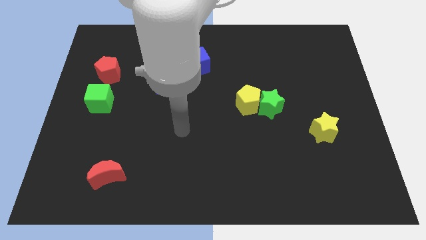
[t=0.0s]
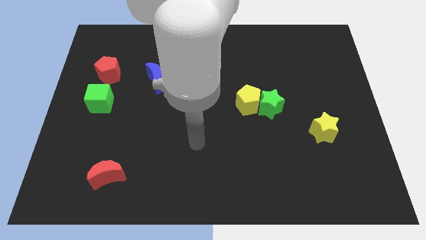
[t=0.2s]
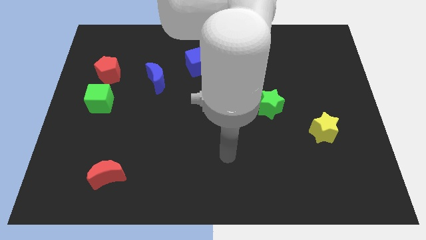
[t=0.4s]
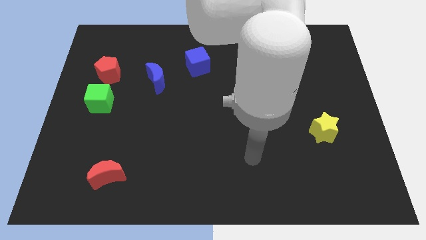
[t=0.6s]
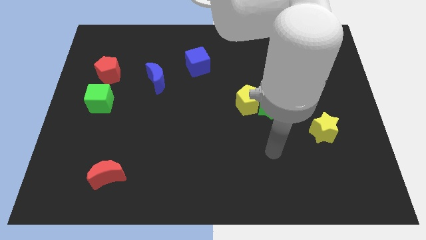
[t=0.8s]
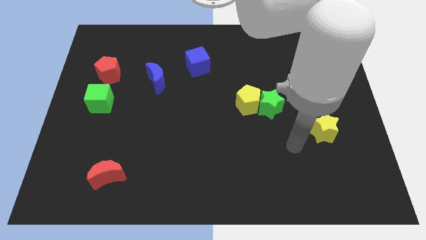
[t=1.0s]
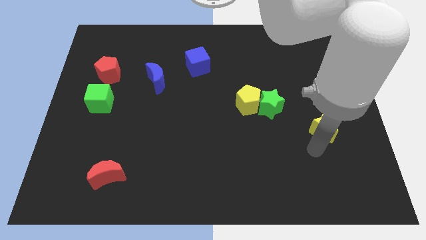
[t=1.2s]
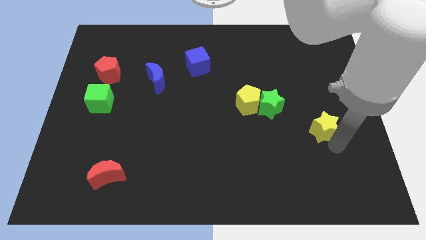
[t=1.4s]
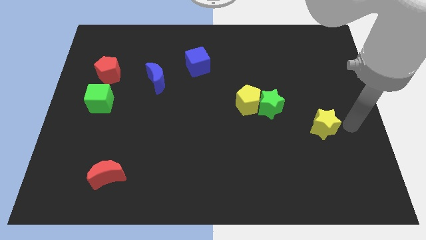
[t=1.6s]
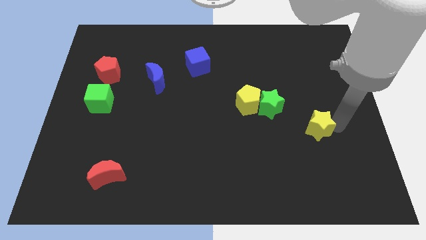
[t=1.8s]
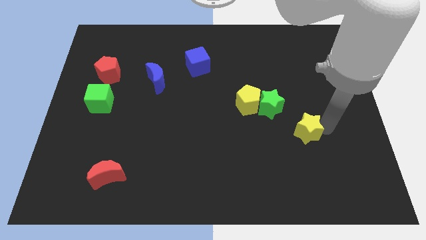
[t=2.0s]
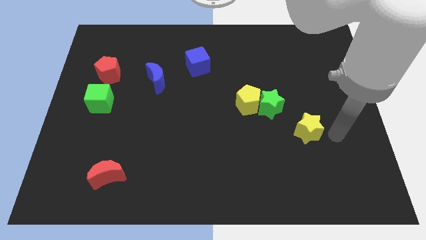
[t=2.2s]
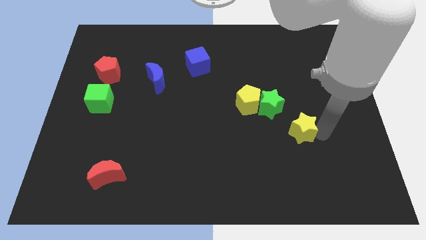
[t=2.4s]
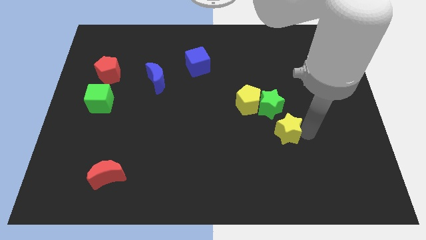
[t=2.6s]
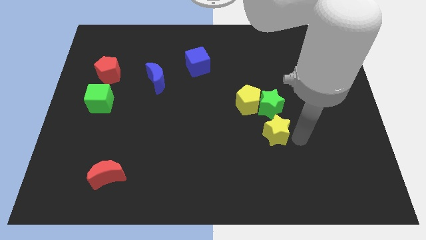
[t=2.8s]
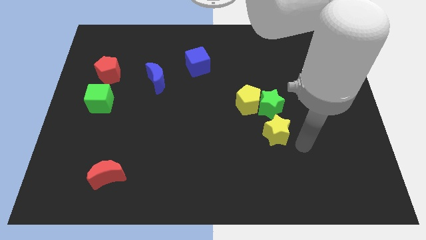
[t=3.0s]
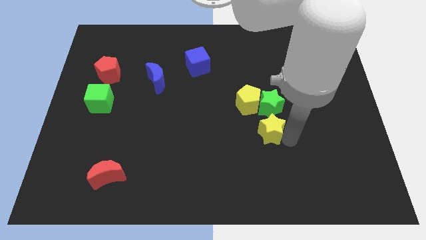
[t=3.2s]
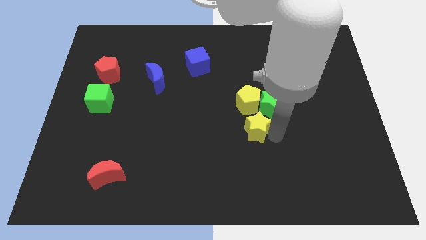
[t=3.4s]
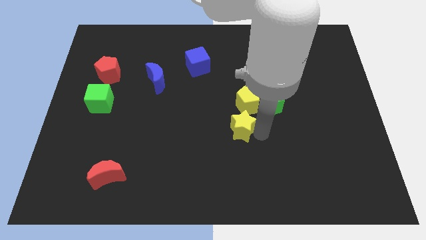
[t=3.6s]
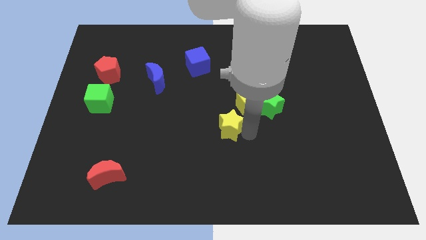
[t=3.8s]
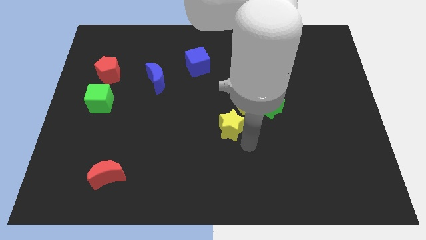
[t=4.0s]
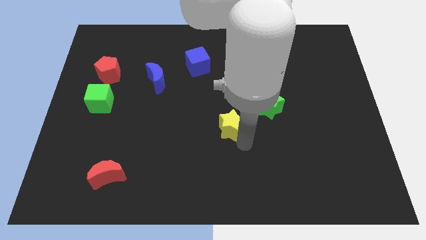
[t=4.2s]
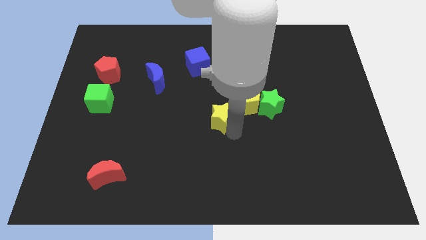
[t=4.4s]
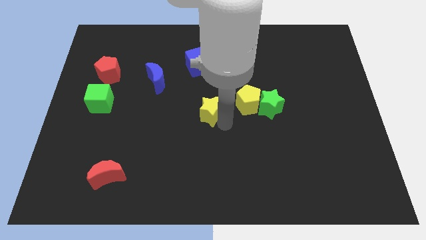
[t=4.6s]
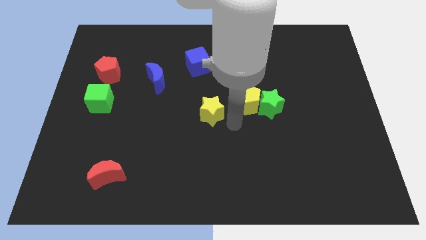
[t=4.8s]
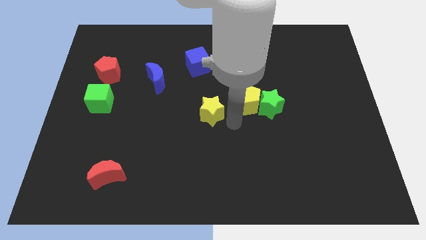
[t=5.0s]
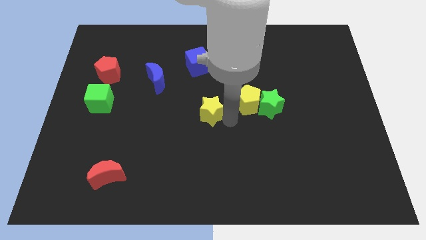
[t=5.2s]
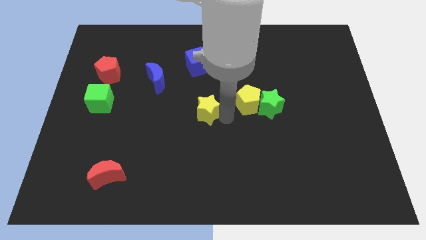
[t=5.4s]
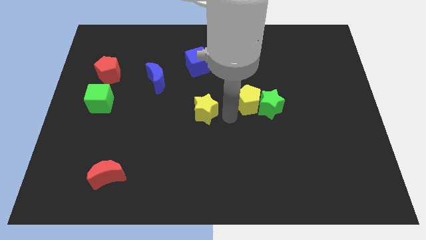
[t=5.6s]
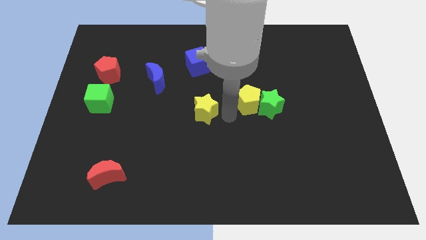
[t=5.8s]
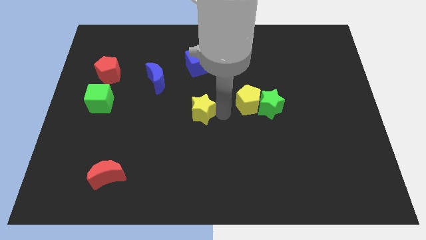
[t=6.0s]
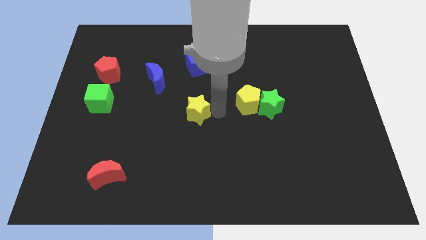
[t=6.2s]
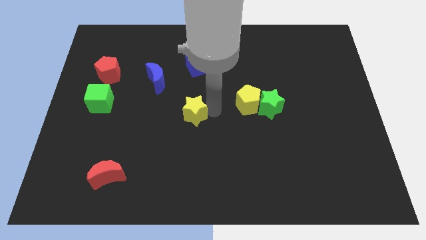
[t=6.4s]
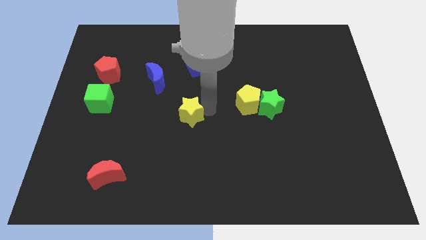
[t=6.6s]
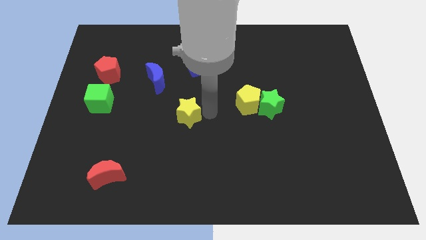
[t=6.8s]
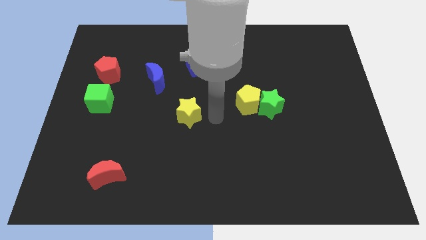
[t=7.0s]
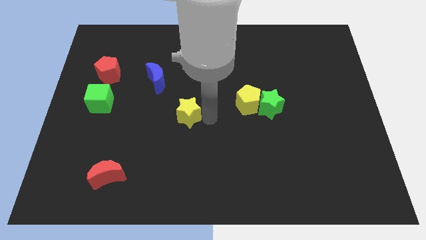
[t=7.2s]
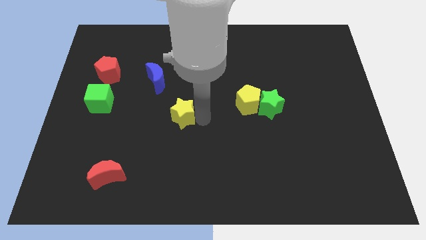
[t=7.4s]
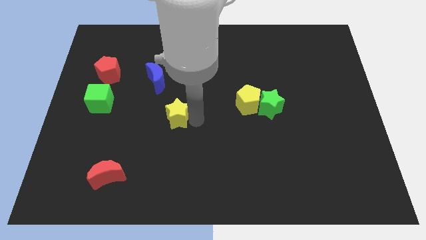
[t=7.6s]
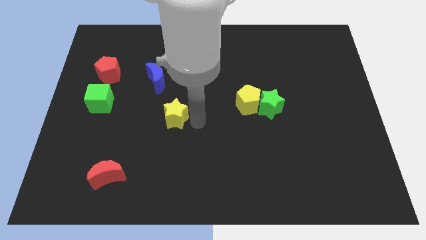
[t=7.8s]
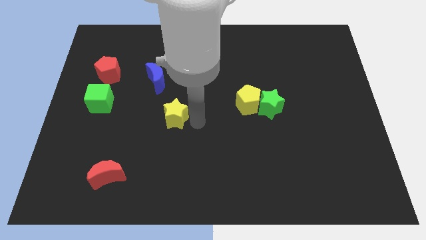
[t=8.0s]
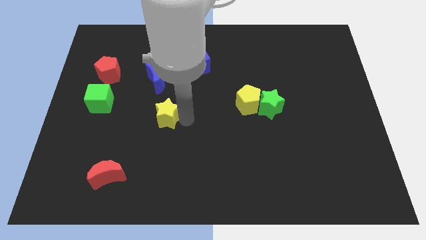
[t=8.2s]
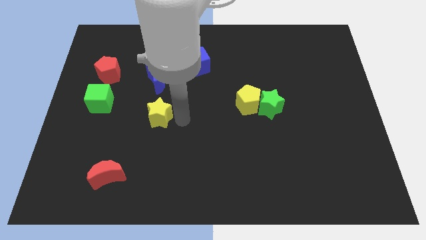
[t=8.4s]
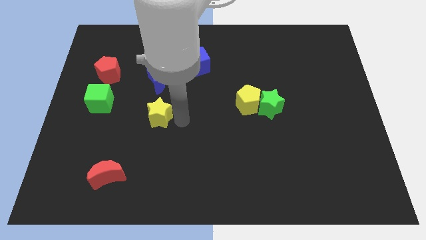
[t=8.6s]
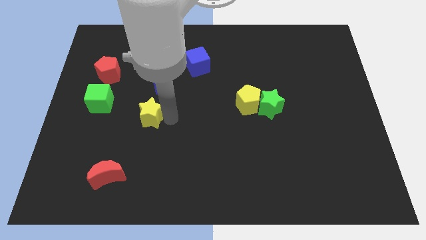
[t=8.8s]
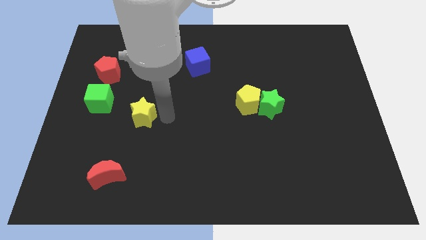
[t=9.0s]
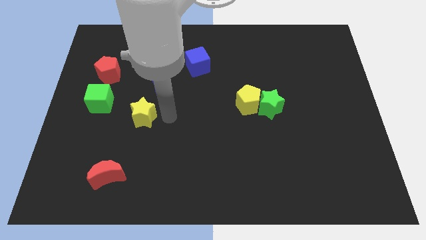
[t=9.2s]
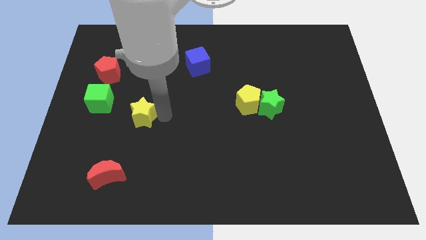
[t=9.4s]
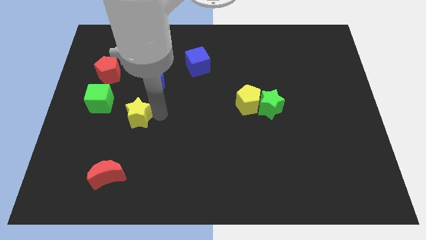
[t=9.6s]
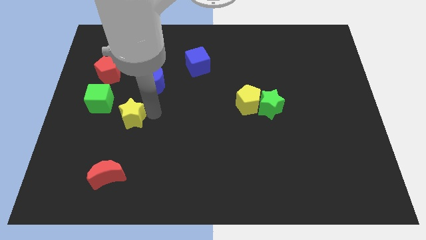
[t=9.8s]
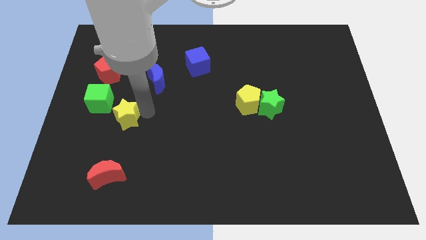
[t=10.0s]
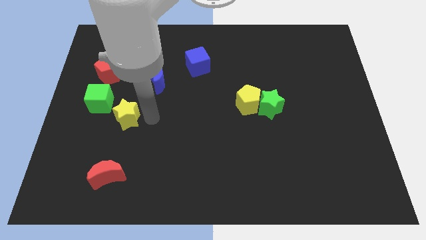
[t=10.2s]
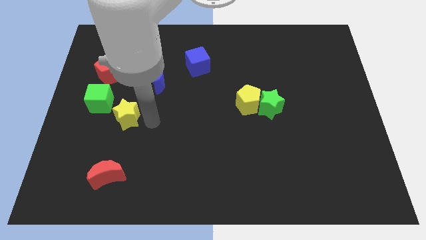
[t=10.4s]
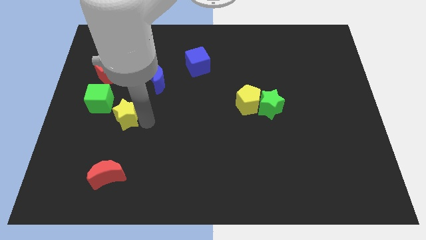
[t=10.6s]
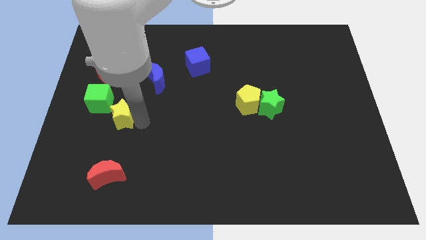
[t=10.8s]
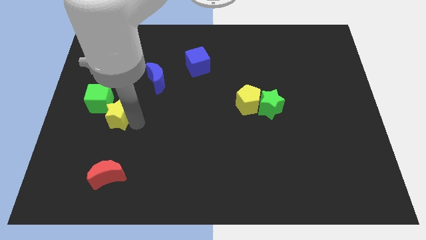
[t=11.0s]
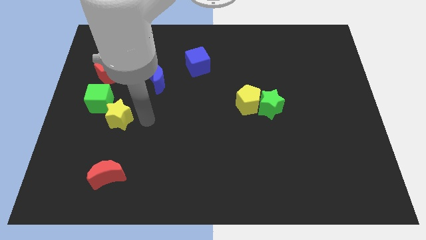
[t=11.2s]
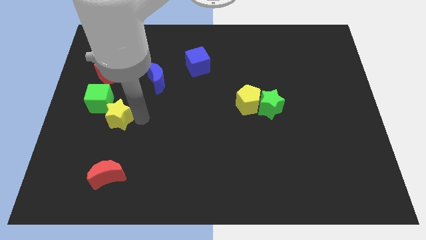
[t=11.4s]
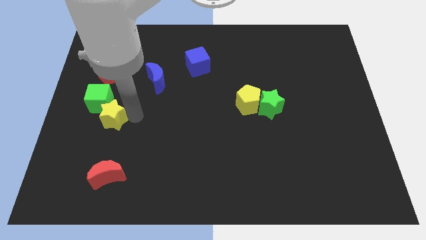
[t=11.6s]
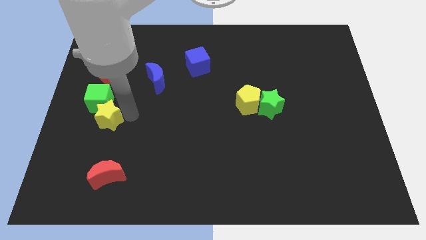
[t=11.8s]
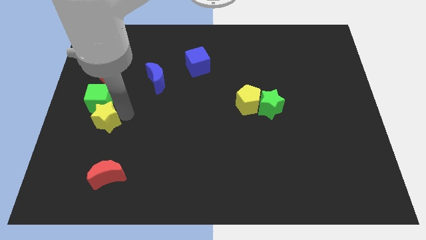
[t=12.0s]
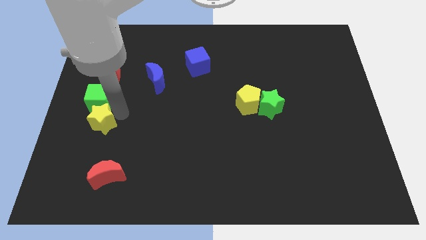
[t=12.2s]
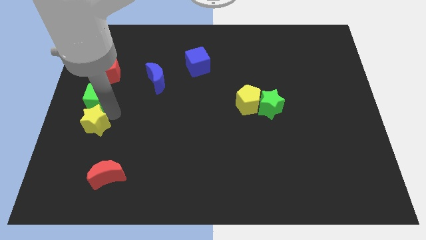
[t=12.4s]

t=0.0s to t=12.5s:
move the yellow star to the center left
